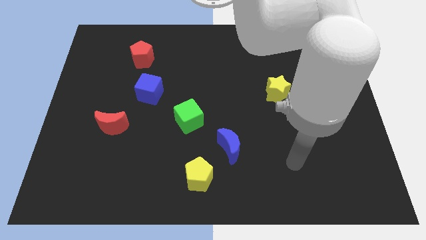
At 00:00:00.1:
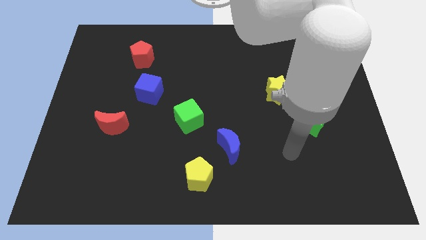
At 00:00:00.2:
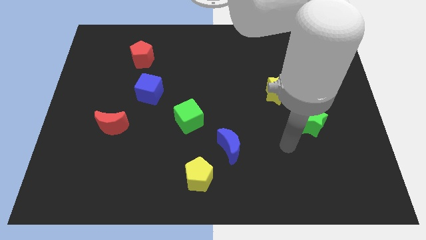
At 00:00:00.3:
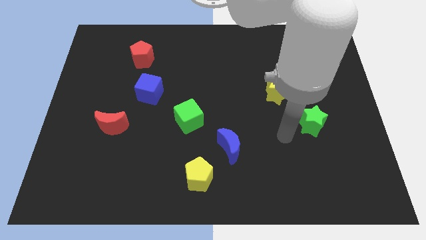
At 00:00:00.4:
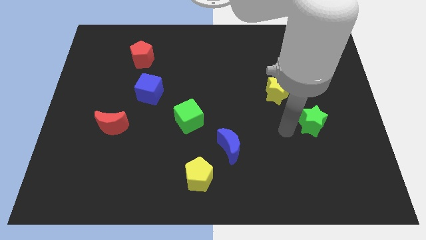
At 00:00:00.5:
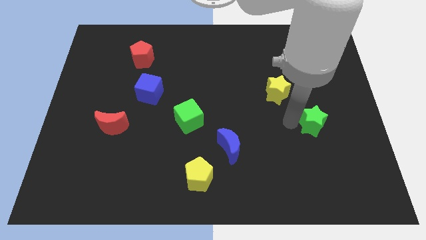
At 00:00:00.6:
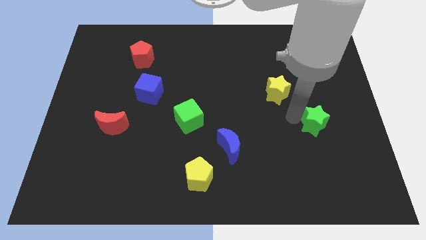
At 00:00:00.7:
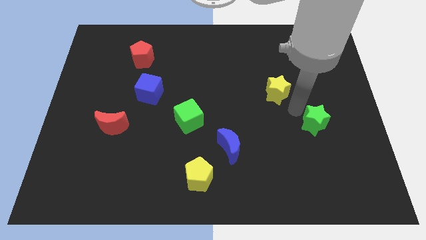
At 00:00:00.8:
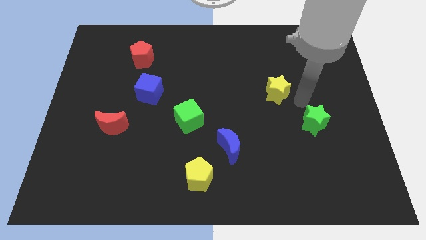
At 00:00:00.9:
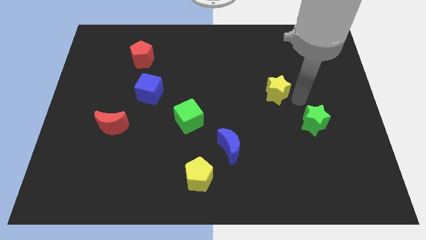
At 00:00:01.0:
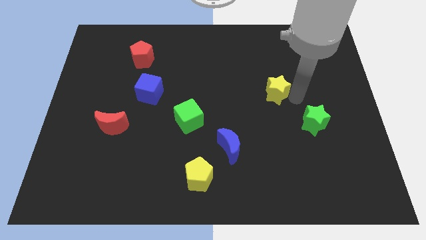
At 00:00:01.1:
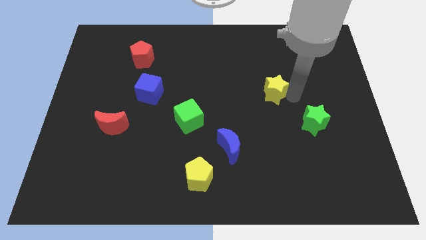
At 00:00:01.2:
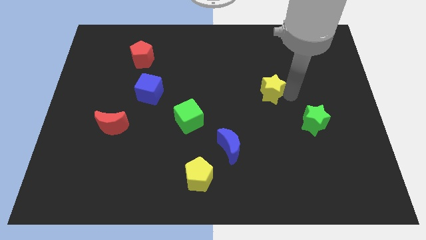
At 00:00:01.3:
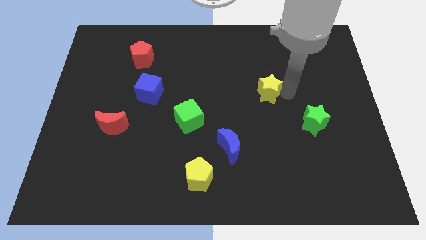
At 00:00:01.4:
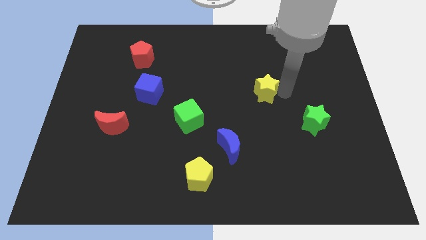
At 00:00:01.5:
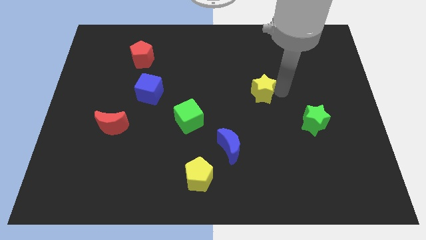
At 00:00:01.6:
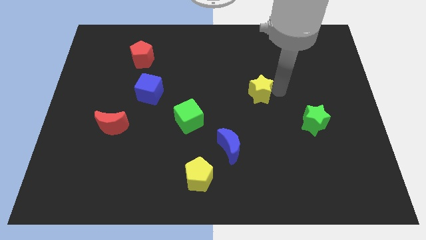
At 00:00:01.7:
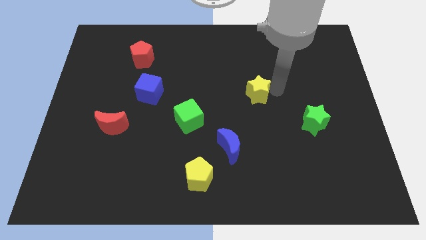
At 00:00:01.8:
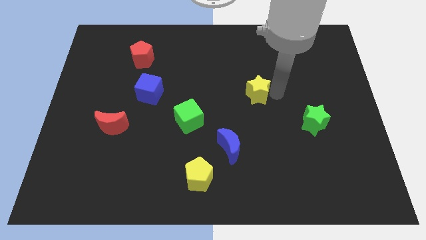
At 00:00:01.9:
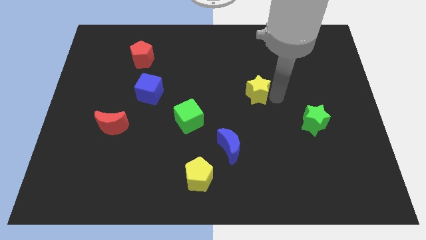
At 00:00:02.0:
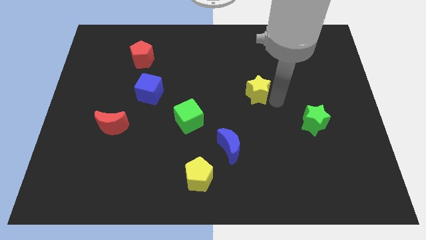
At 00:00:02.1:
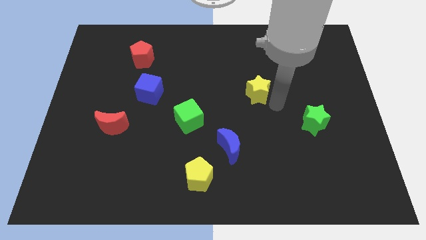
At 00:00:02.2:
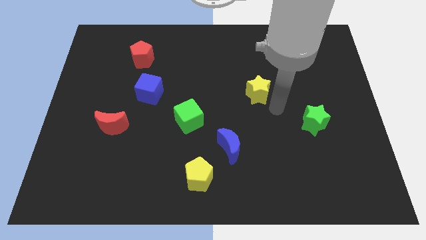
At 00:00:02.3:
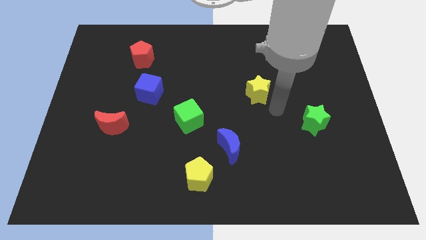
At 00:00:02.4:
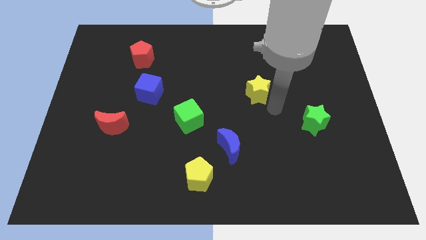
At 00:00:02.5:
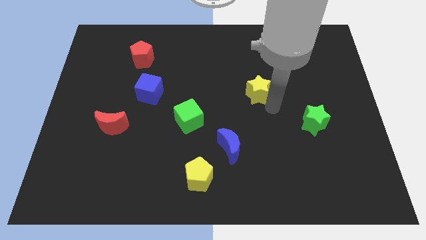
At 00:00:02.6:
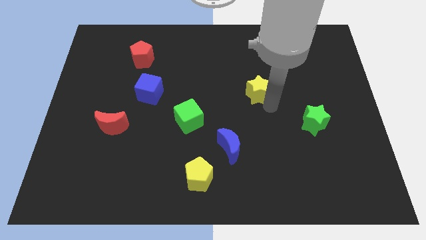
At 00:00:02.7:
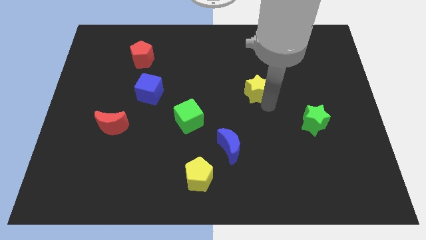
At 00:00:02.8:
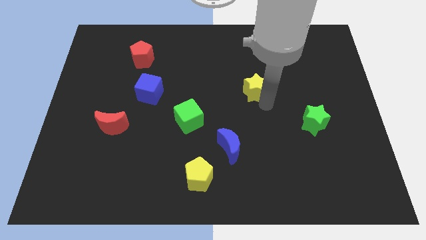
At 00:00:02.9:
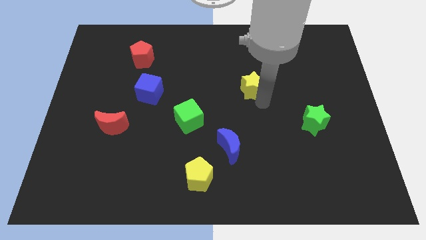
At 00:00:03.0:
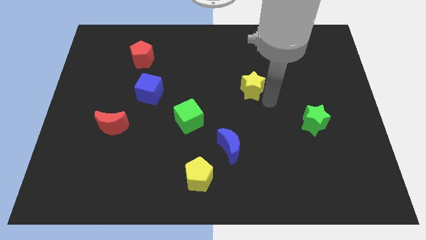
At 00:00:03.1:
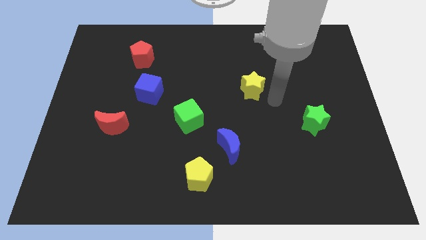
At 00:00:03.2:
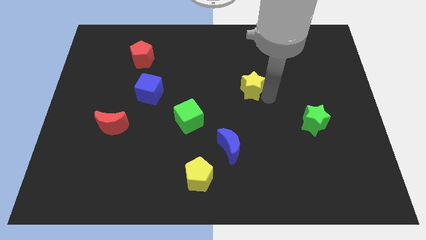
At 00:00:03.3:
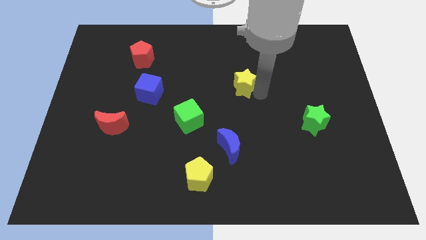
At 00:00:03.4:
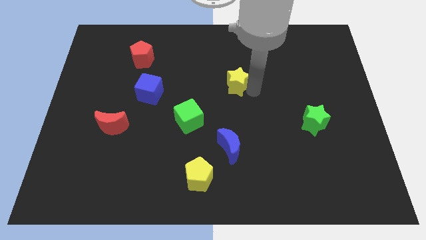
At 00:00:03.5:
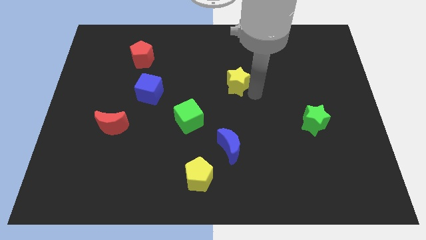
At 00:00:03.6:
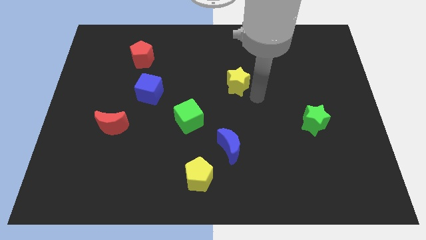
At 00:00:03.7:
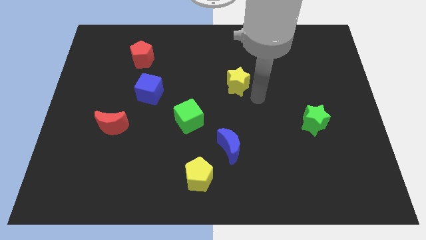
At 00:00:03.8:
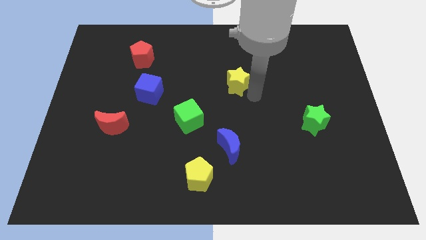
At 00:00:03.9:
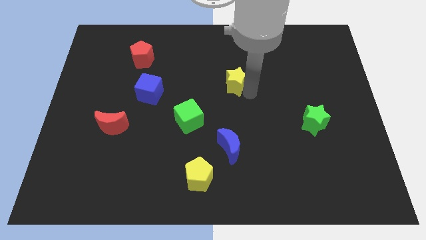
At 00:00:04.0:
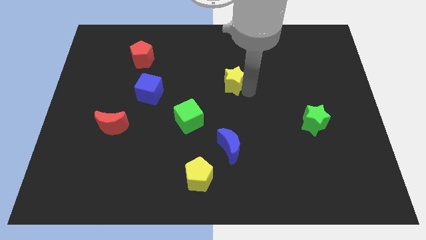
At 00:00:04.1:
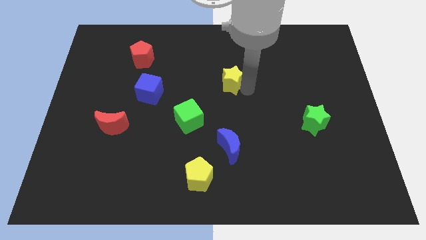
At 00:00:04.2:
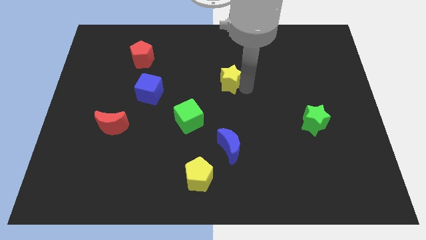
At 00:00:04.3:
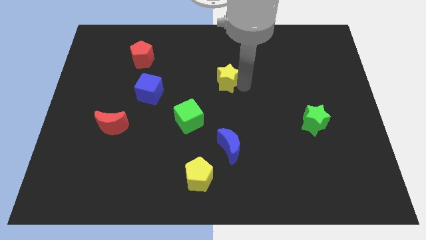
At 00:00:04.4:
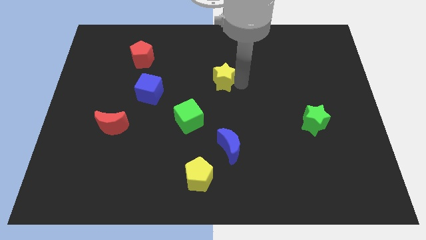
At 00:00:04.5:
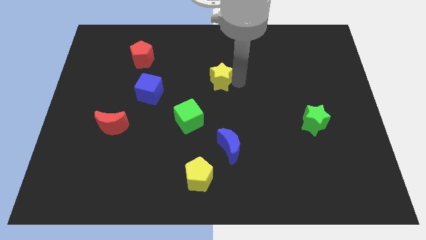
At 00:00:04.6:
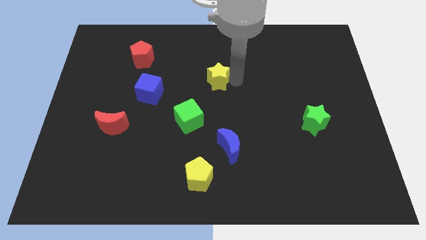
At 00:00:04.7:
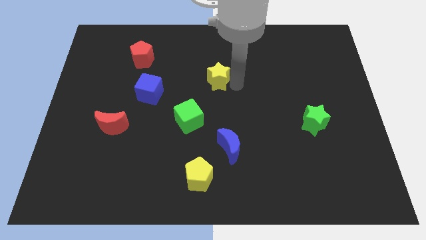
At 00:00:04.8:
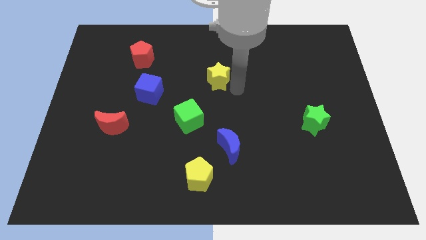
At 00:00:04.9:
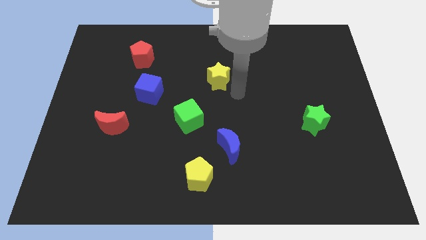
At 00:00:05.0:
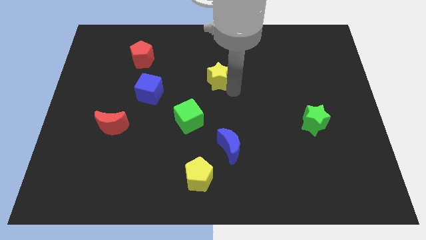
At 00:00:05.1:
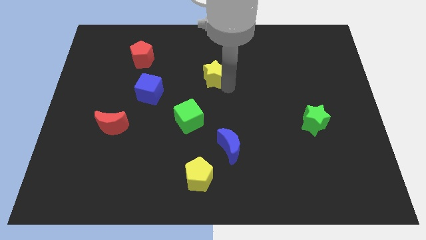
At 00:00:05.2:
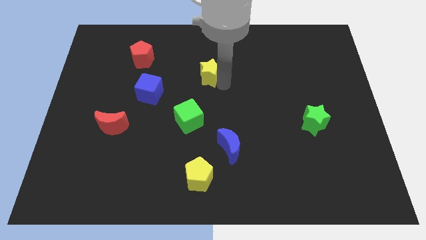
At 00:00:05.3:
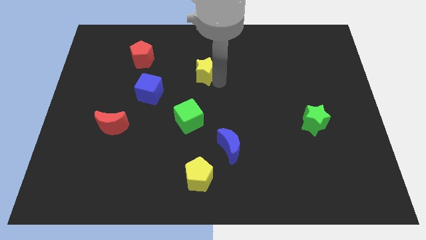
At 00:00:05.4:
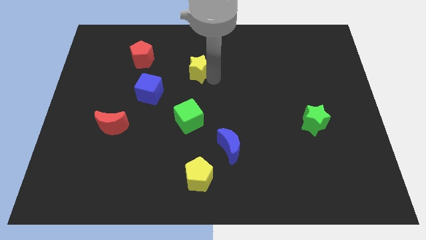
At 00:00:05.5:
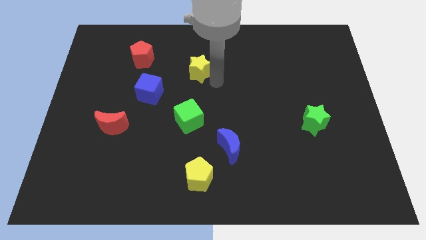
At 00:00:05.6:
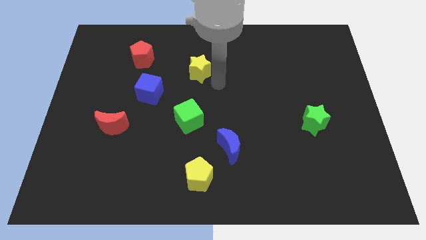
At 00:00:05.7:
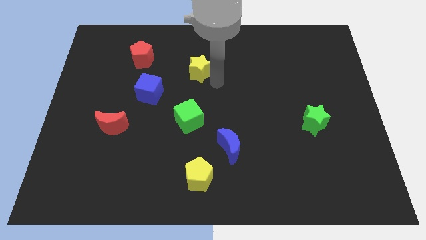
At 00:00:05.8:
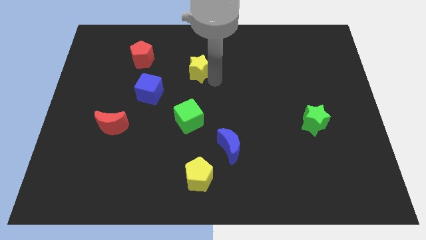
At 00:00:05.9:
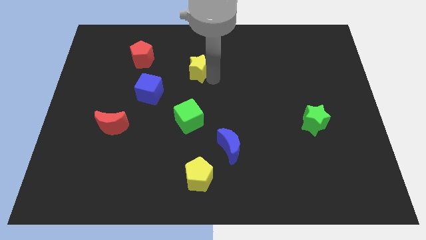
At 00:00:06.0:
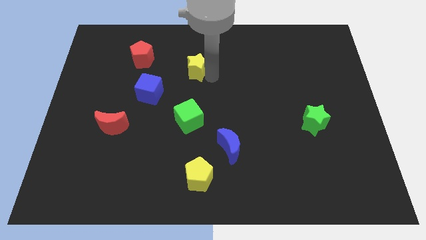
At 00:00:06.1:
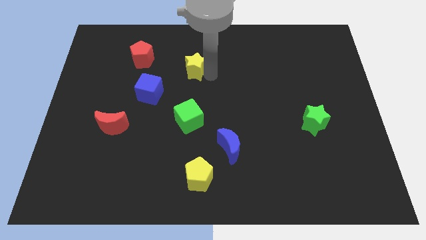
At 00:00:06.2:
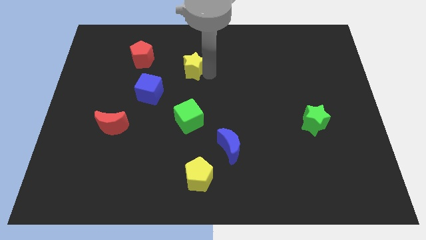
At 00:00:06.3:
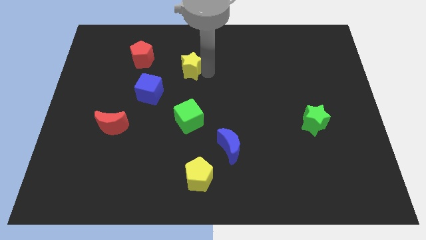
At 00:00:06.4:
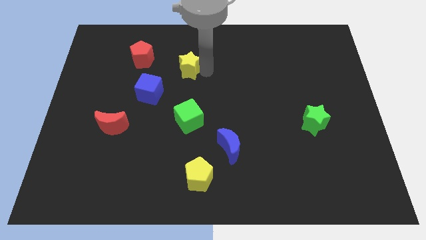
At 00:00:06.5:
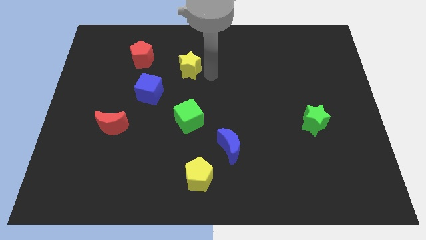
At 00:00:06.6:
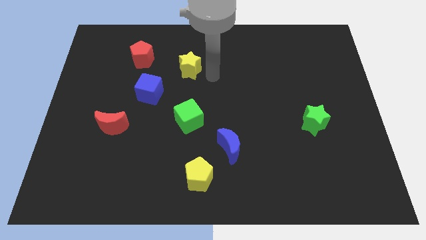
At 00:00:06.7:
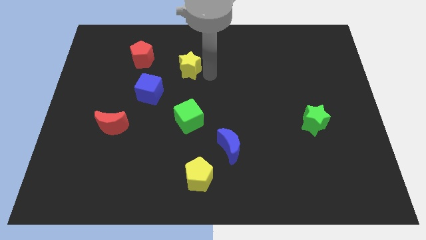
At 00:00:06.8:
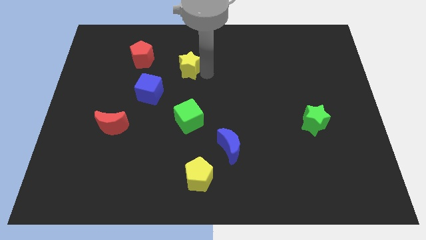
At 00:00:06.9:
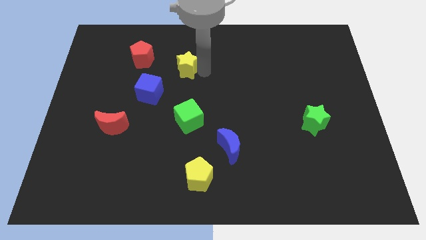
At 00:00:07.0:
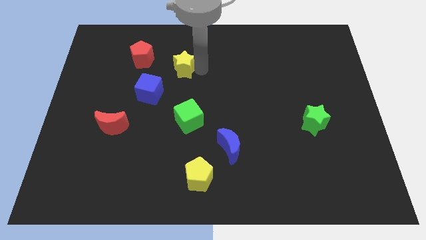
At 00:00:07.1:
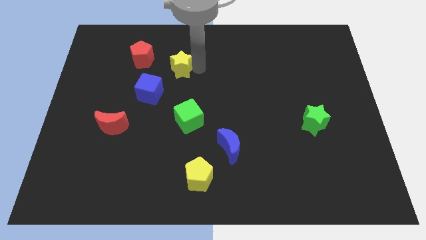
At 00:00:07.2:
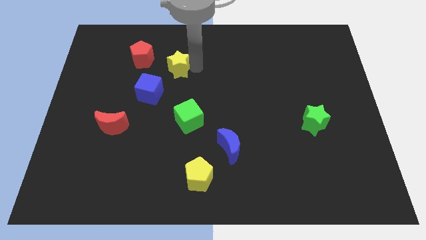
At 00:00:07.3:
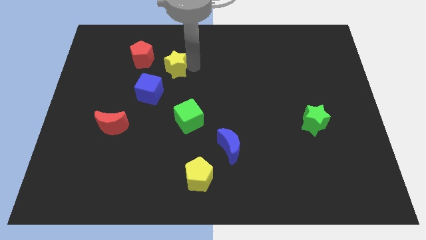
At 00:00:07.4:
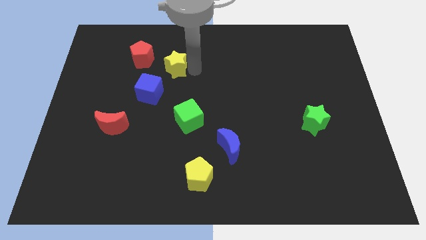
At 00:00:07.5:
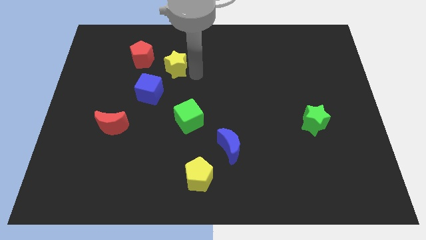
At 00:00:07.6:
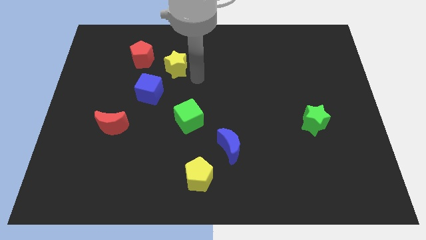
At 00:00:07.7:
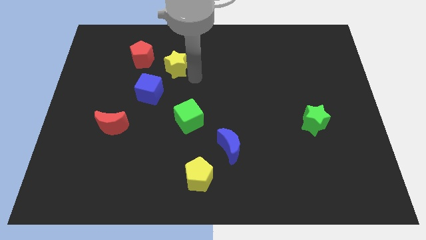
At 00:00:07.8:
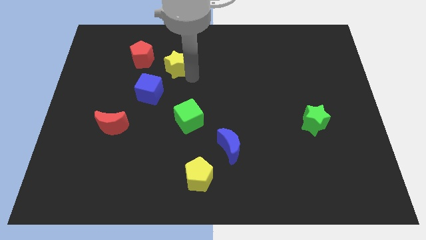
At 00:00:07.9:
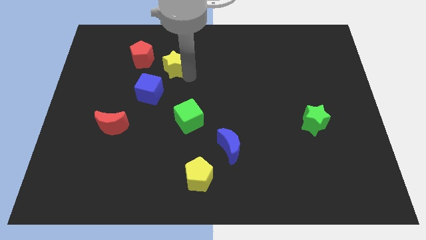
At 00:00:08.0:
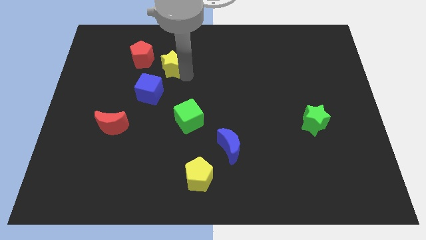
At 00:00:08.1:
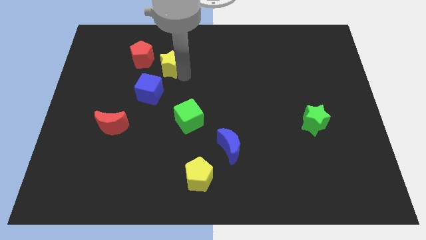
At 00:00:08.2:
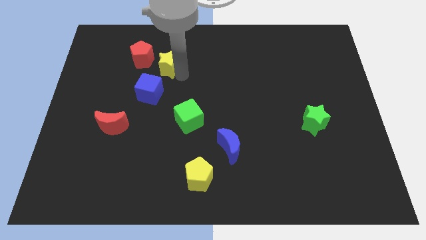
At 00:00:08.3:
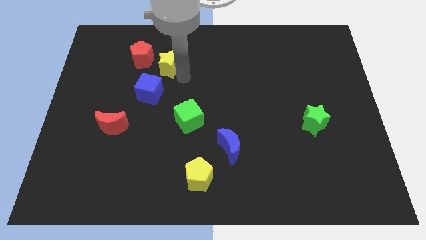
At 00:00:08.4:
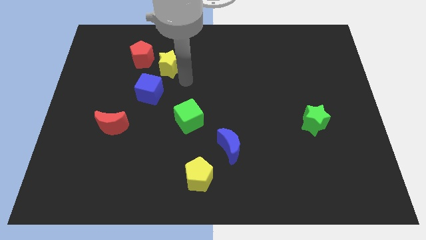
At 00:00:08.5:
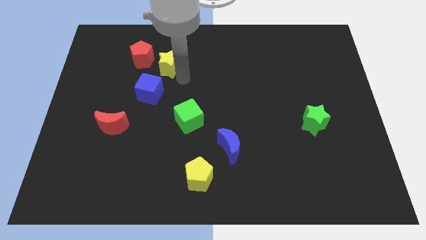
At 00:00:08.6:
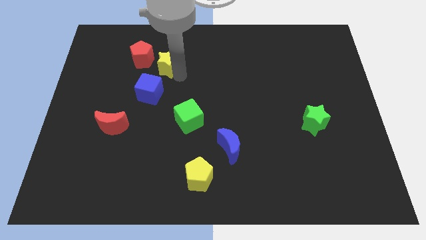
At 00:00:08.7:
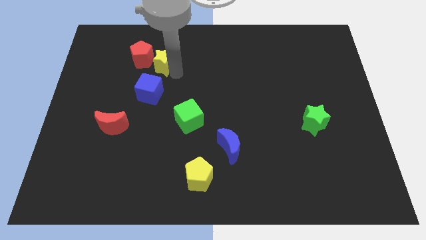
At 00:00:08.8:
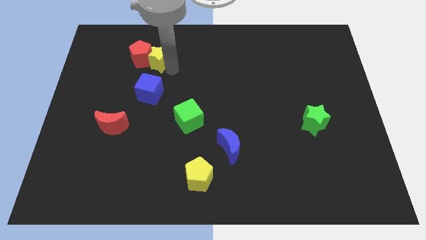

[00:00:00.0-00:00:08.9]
put the yellow star next to the red pentagon
